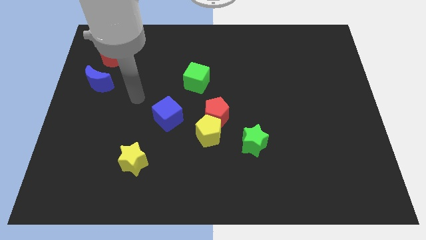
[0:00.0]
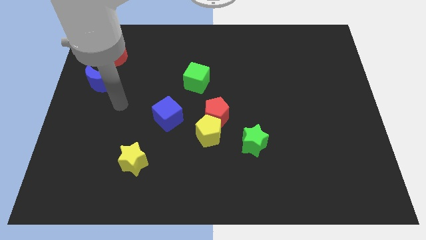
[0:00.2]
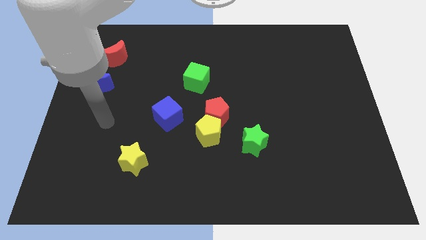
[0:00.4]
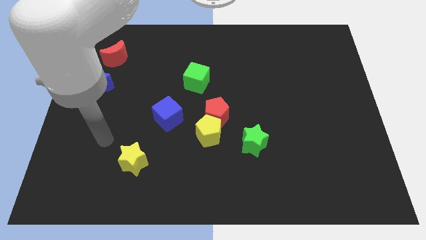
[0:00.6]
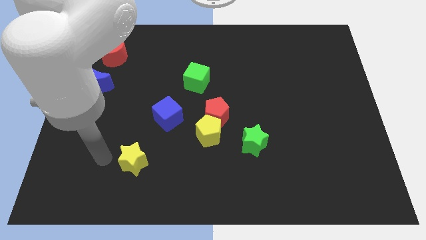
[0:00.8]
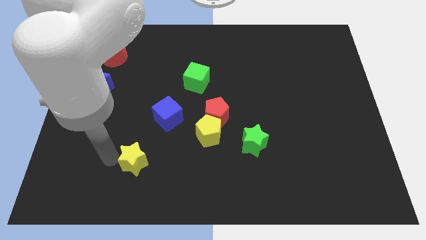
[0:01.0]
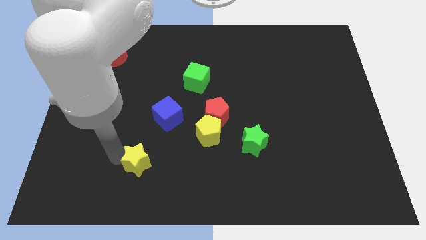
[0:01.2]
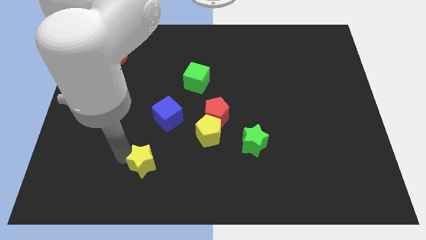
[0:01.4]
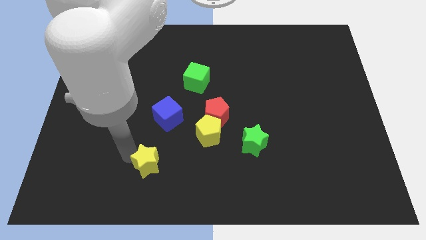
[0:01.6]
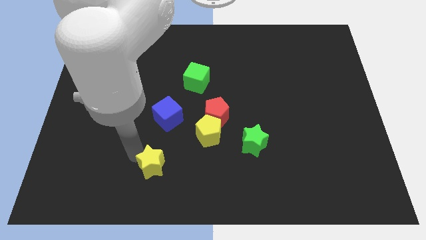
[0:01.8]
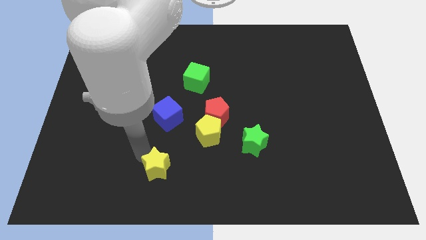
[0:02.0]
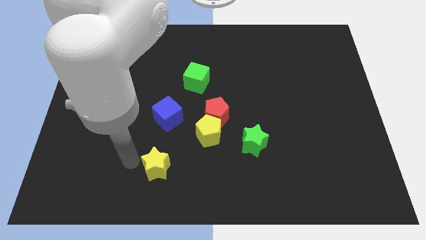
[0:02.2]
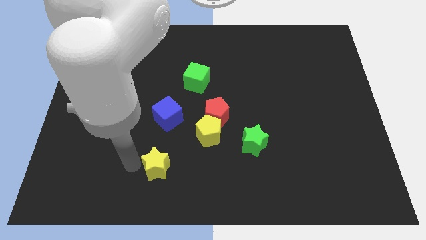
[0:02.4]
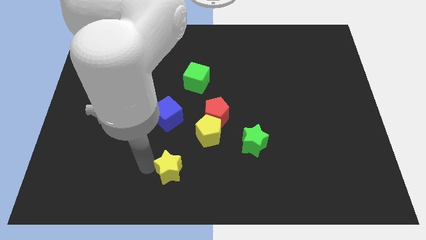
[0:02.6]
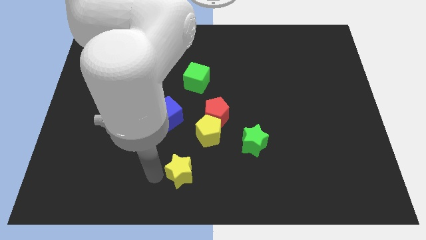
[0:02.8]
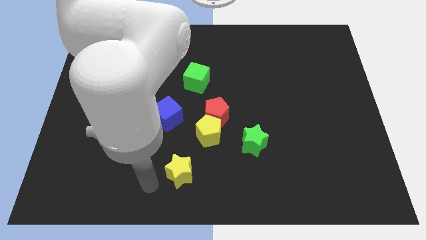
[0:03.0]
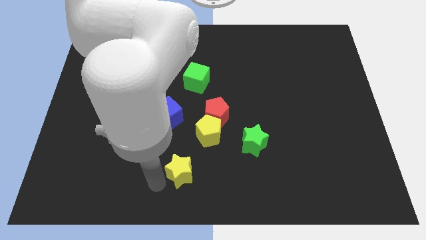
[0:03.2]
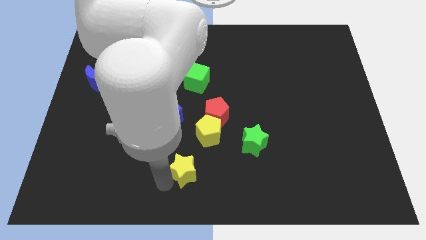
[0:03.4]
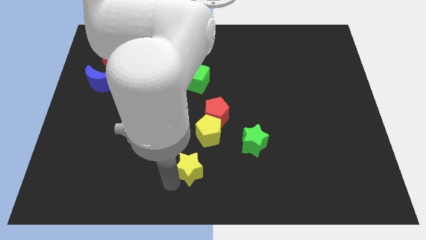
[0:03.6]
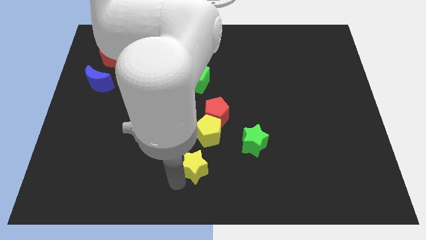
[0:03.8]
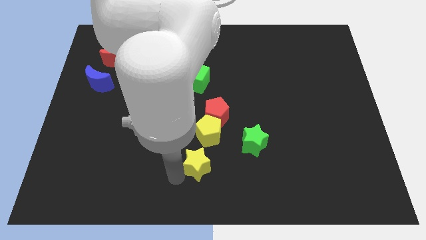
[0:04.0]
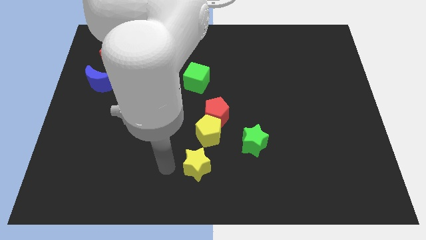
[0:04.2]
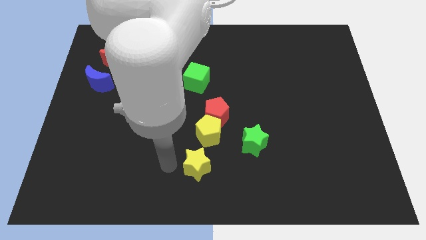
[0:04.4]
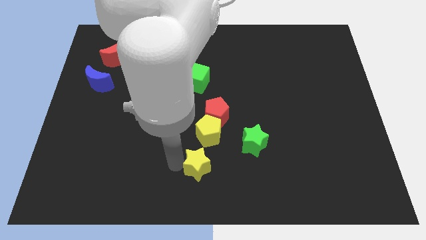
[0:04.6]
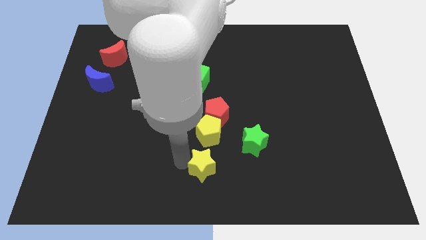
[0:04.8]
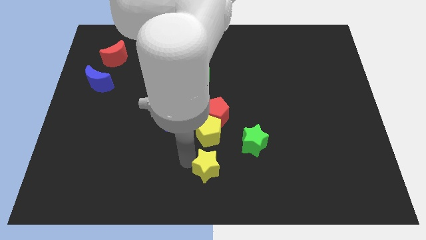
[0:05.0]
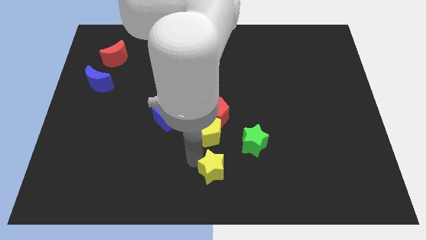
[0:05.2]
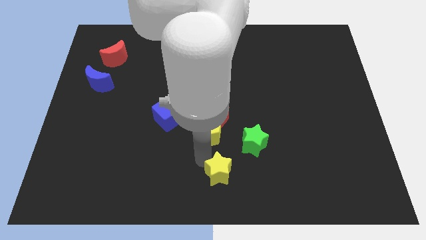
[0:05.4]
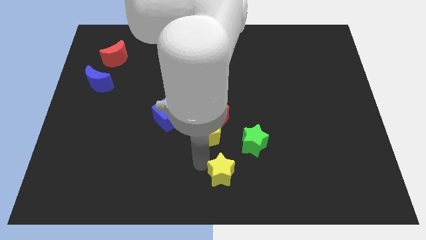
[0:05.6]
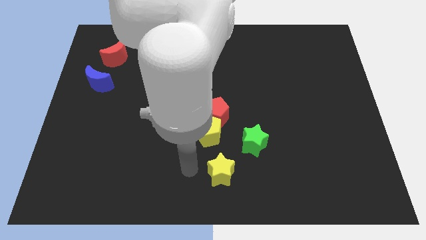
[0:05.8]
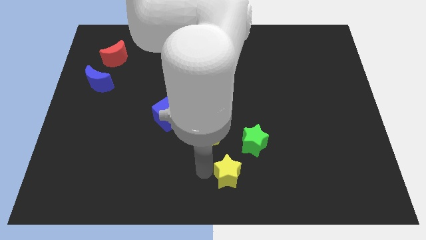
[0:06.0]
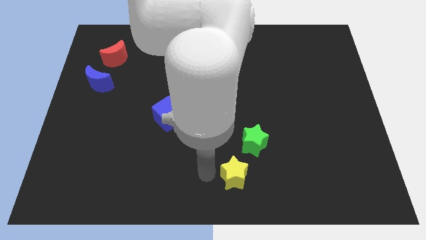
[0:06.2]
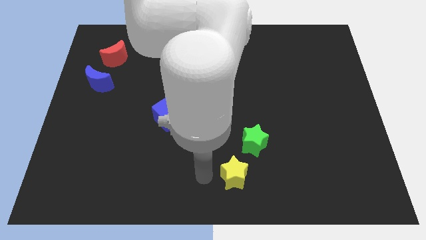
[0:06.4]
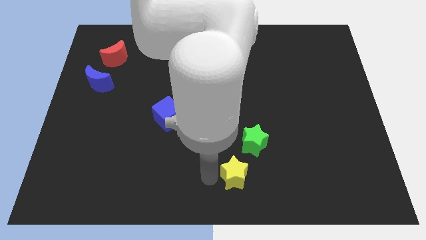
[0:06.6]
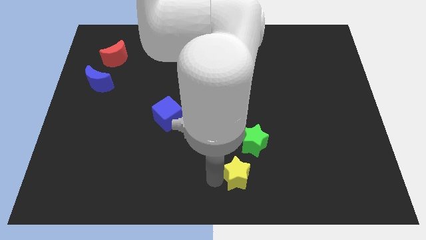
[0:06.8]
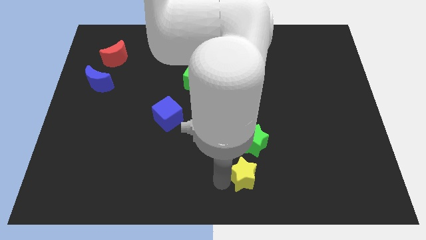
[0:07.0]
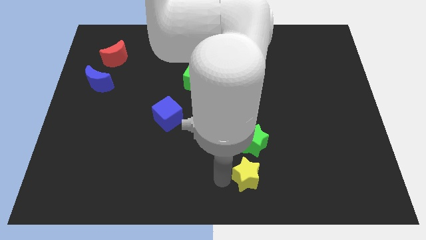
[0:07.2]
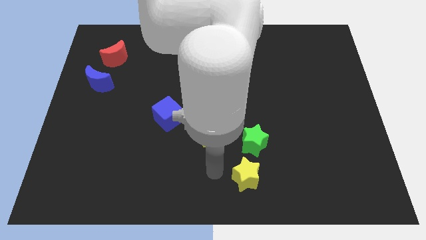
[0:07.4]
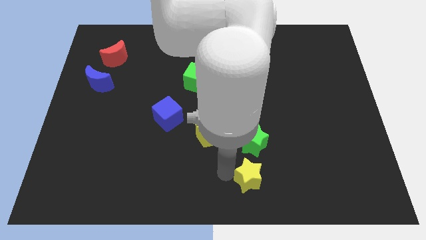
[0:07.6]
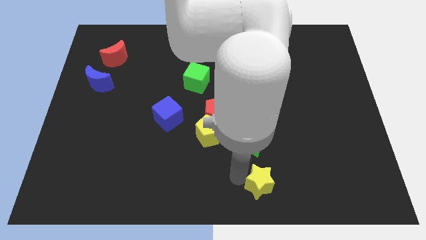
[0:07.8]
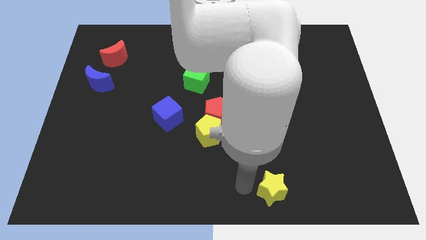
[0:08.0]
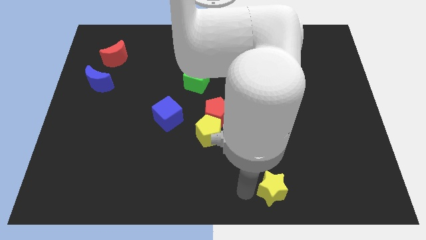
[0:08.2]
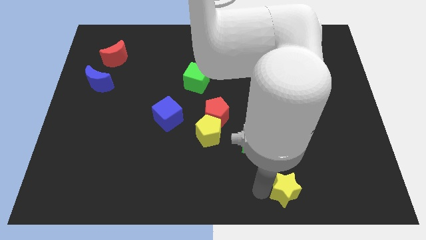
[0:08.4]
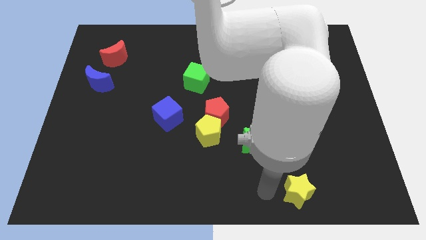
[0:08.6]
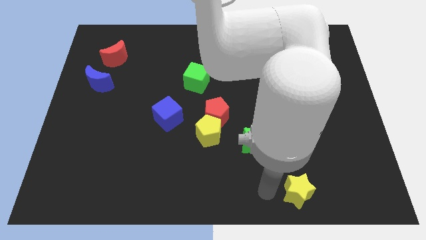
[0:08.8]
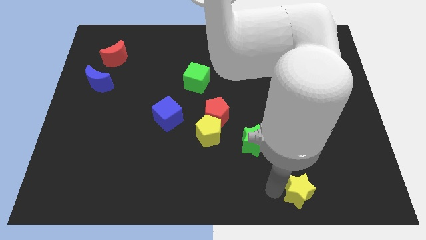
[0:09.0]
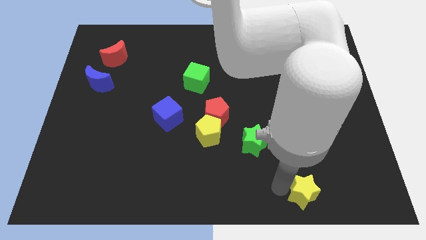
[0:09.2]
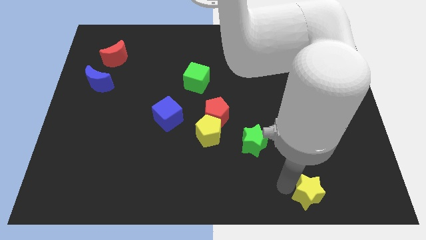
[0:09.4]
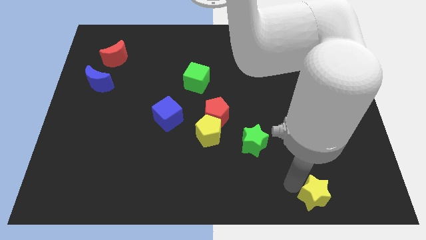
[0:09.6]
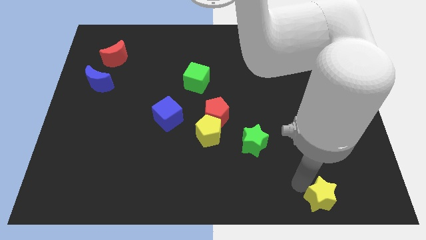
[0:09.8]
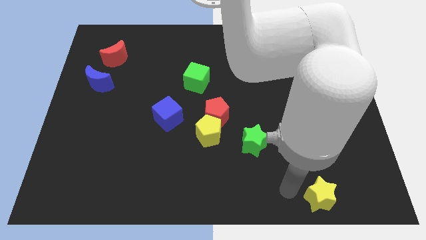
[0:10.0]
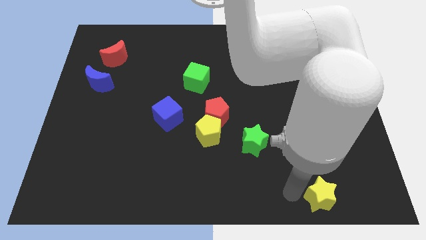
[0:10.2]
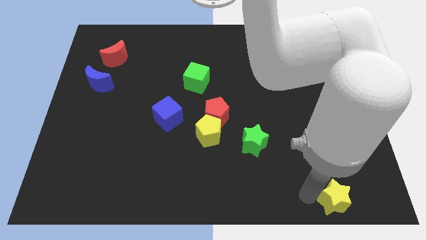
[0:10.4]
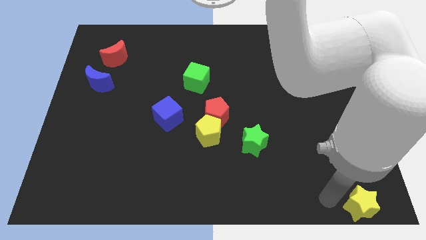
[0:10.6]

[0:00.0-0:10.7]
slide the yellow star to the bottom right

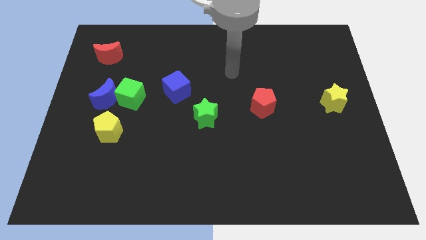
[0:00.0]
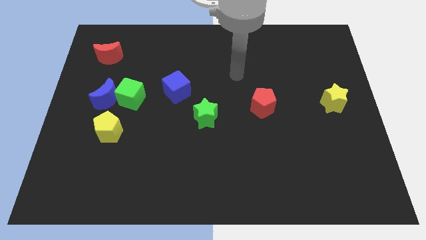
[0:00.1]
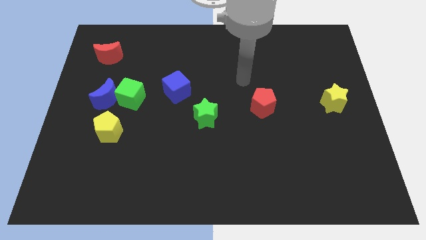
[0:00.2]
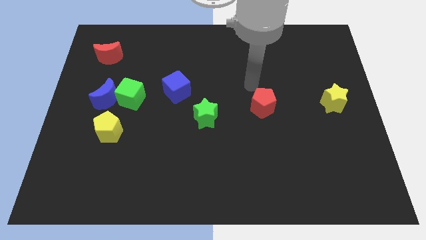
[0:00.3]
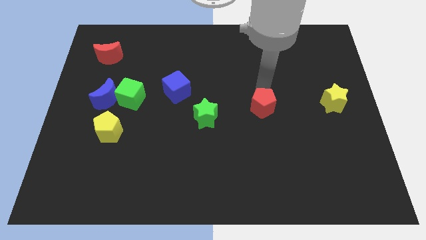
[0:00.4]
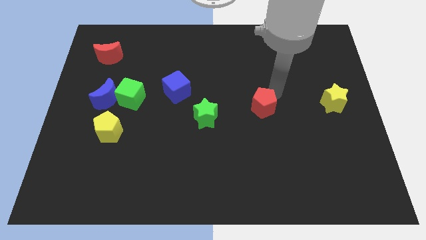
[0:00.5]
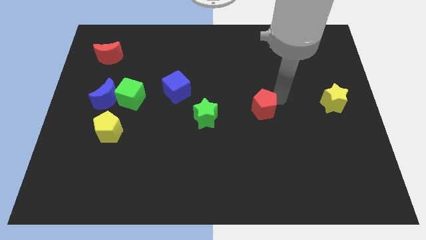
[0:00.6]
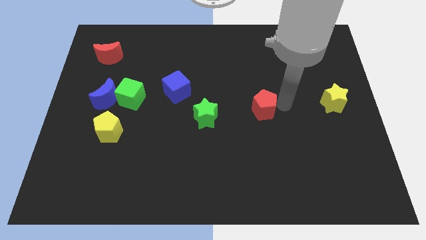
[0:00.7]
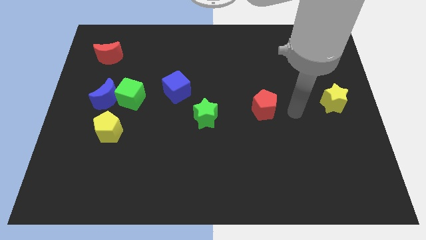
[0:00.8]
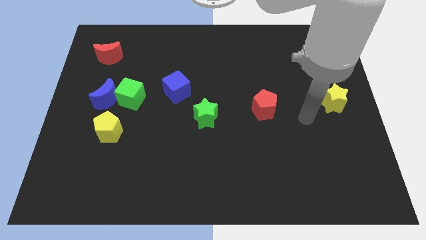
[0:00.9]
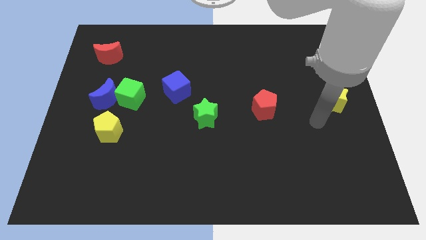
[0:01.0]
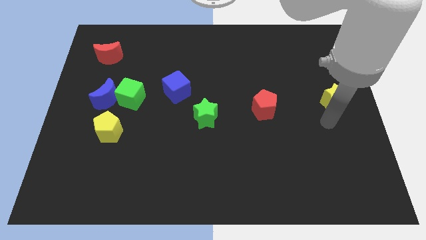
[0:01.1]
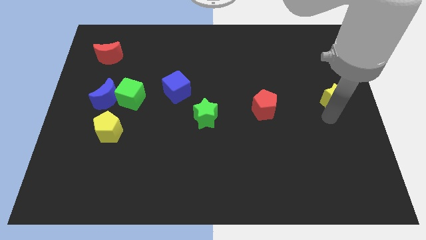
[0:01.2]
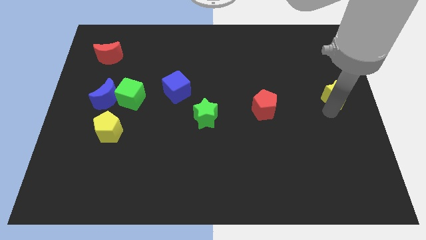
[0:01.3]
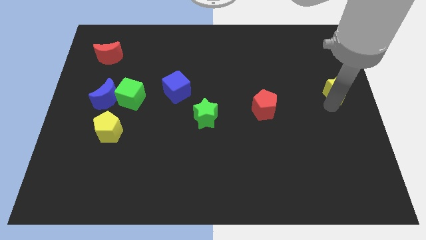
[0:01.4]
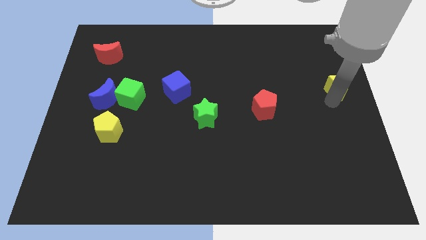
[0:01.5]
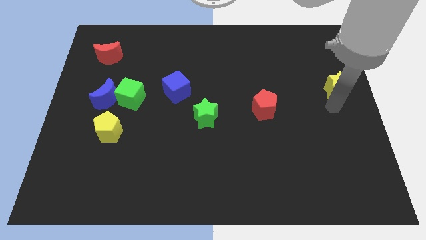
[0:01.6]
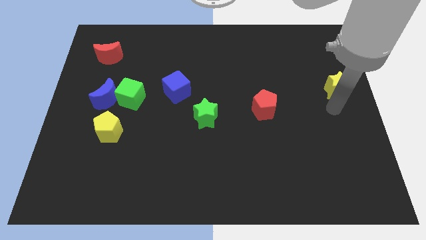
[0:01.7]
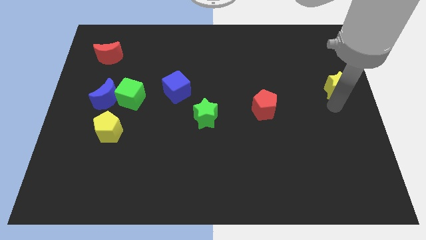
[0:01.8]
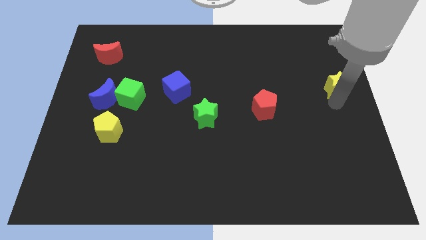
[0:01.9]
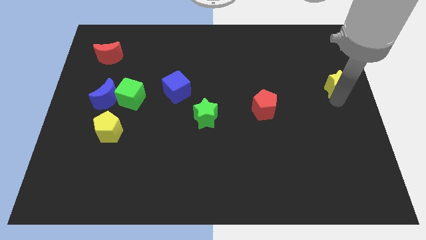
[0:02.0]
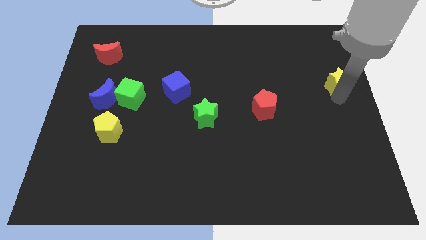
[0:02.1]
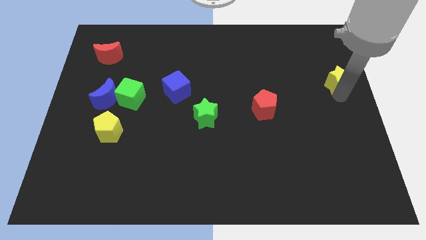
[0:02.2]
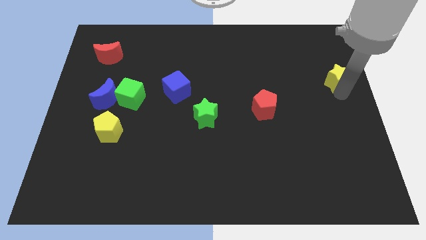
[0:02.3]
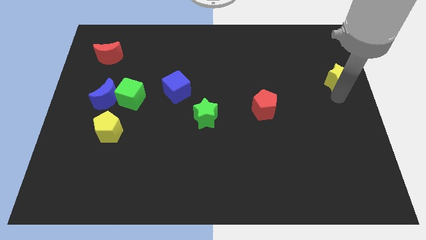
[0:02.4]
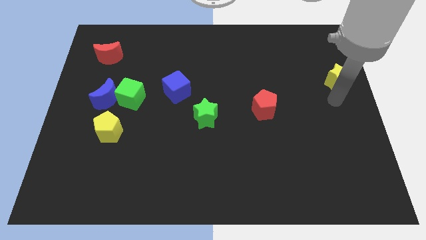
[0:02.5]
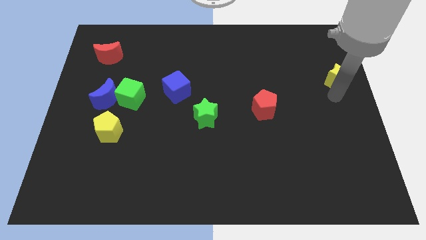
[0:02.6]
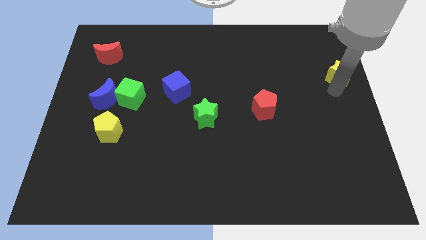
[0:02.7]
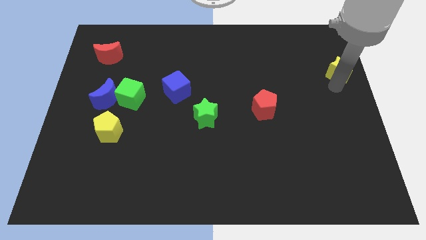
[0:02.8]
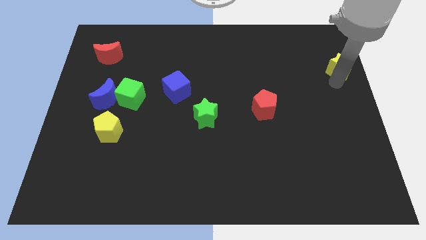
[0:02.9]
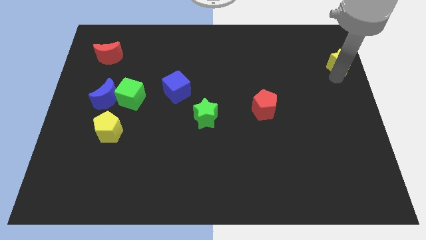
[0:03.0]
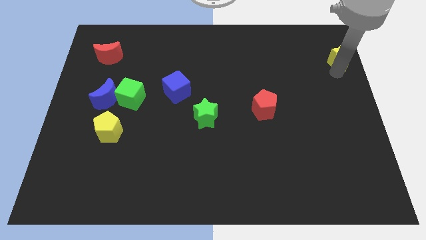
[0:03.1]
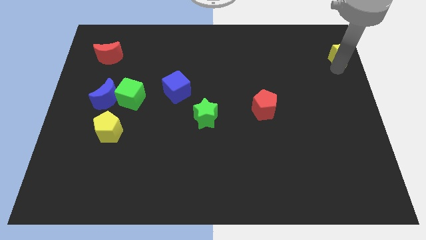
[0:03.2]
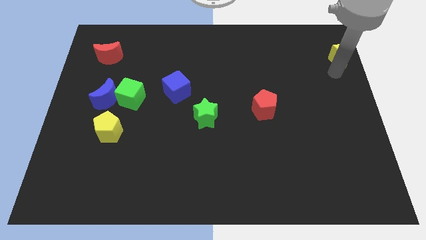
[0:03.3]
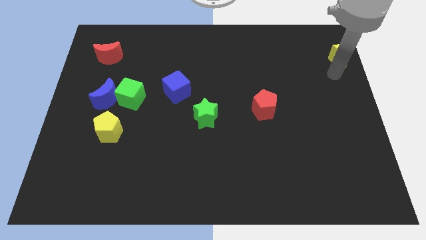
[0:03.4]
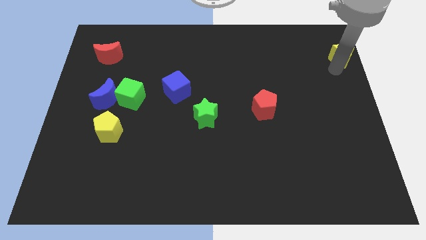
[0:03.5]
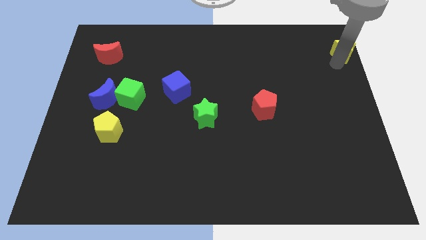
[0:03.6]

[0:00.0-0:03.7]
move the yellow star to the top right of the board
